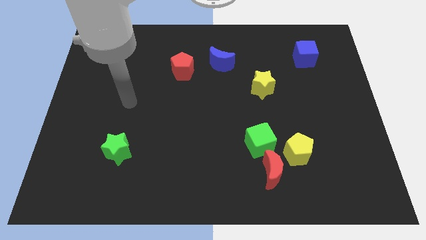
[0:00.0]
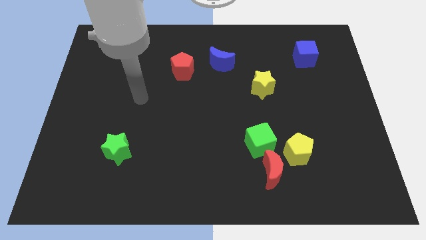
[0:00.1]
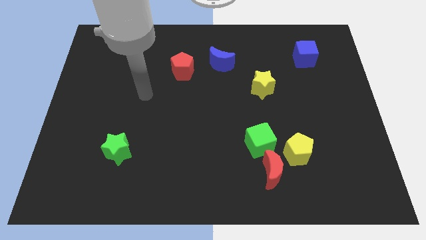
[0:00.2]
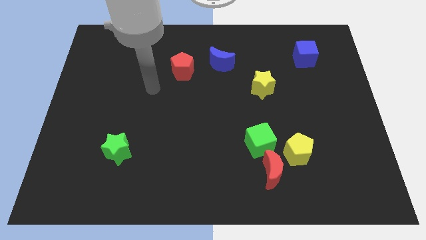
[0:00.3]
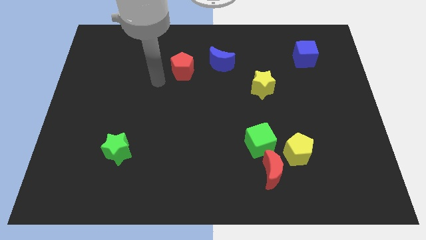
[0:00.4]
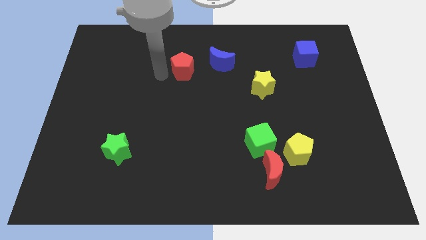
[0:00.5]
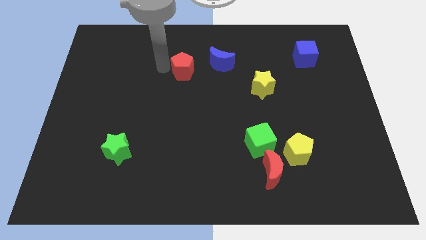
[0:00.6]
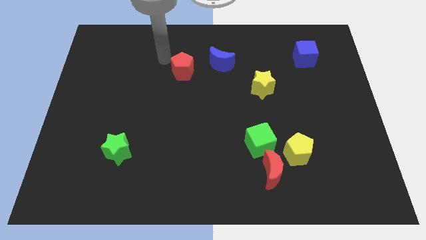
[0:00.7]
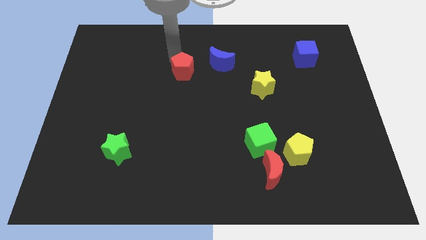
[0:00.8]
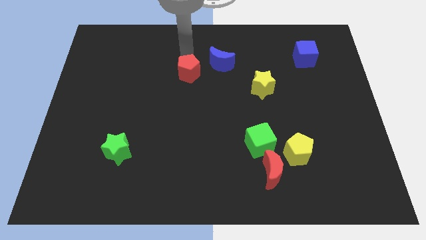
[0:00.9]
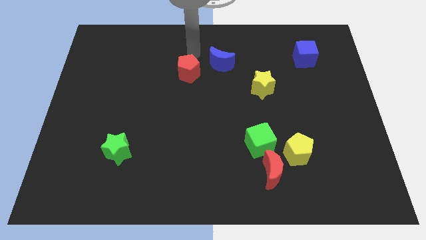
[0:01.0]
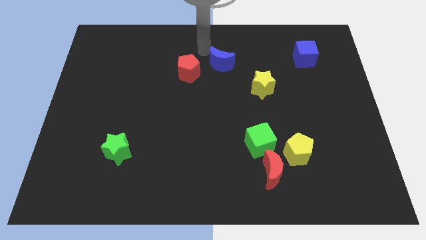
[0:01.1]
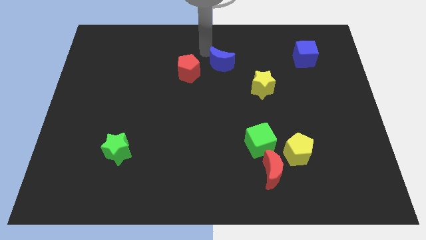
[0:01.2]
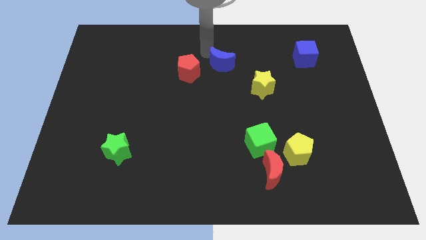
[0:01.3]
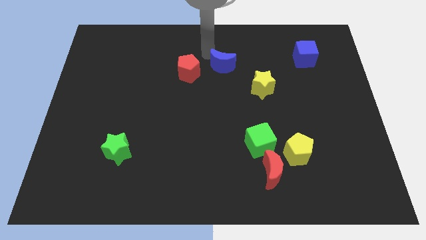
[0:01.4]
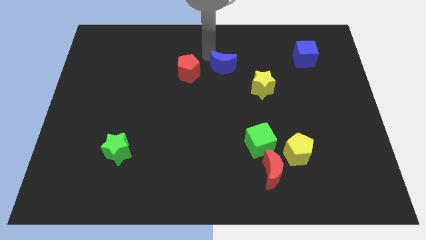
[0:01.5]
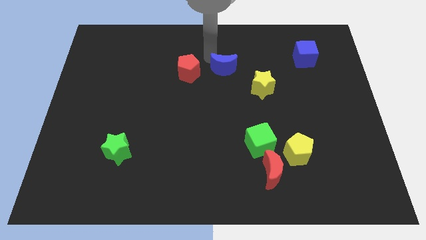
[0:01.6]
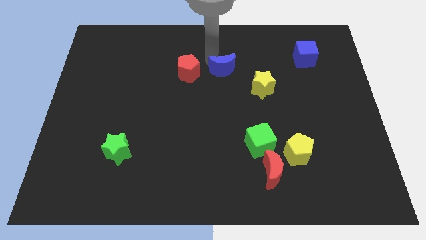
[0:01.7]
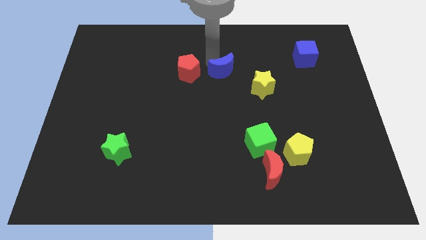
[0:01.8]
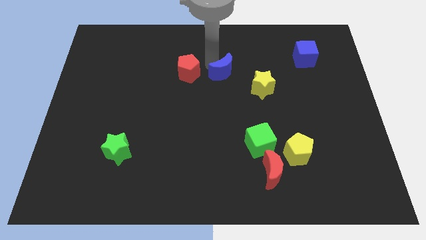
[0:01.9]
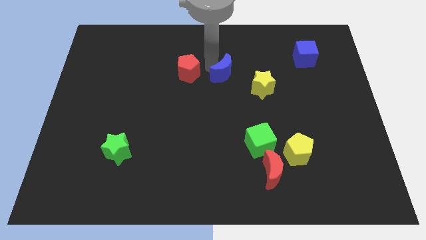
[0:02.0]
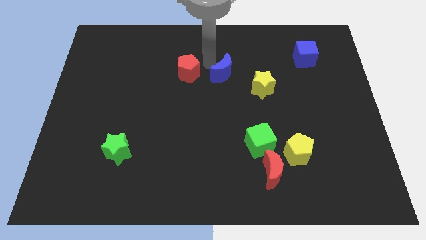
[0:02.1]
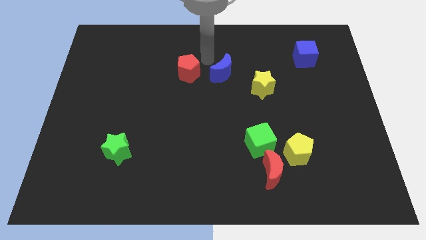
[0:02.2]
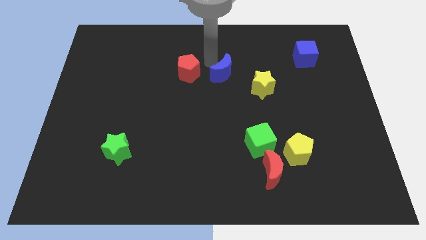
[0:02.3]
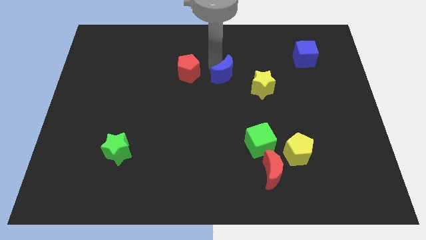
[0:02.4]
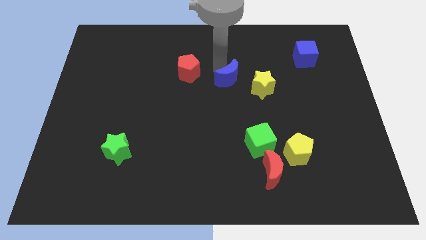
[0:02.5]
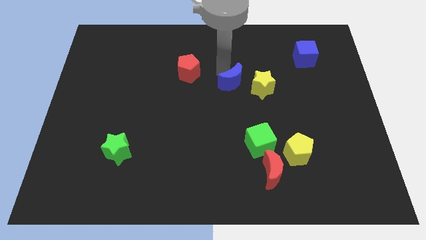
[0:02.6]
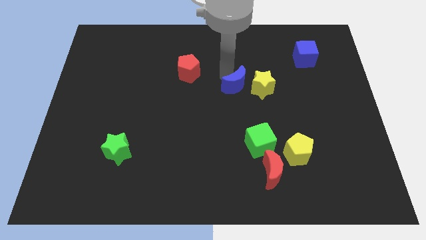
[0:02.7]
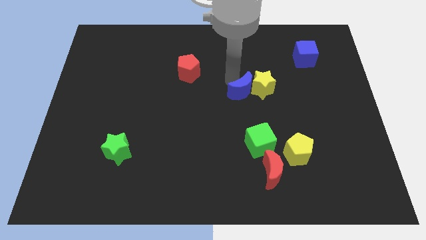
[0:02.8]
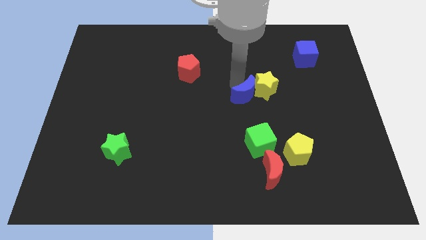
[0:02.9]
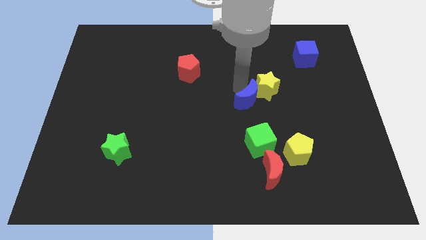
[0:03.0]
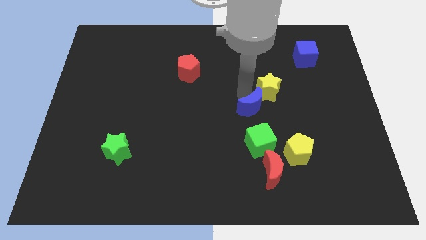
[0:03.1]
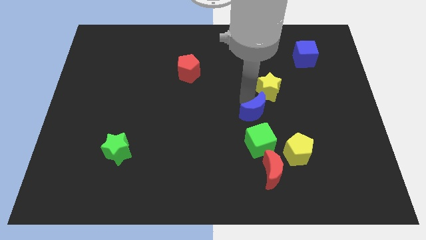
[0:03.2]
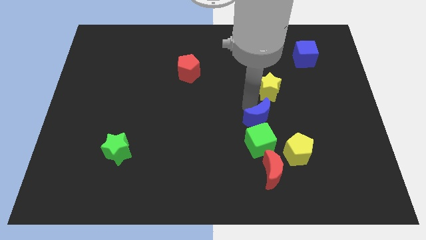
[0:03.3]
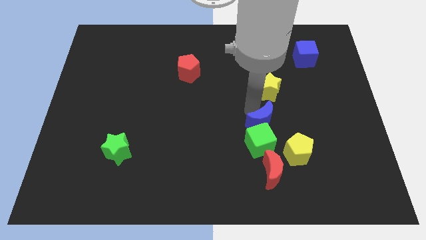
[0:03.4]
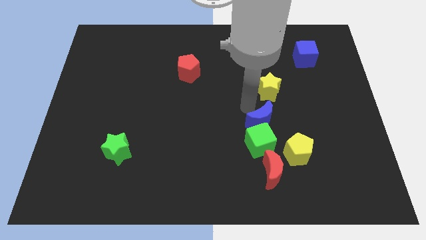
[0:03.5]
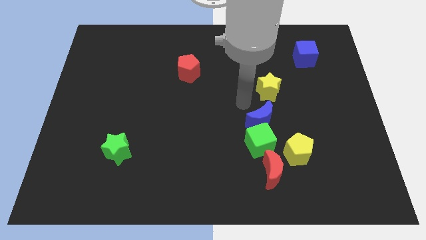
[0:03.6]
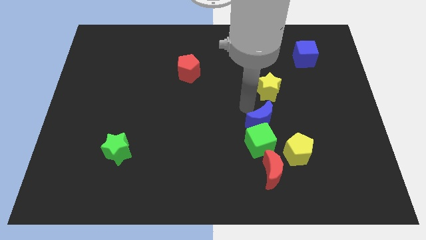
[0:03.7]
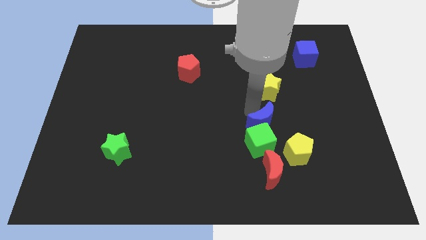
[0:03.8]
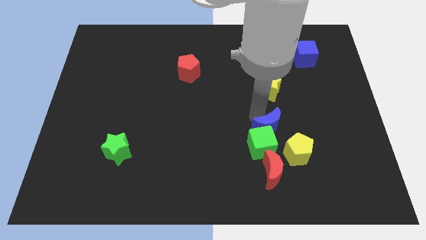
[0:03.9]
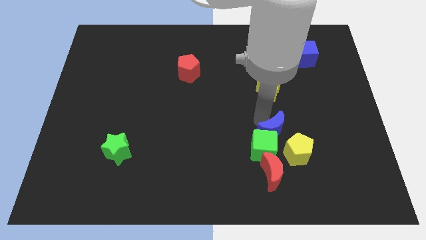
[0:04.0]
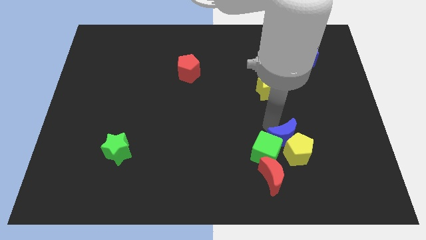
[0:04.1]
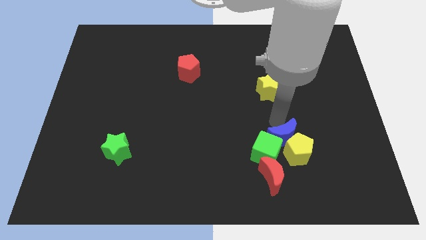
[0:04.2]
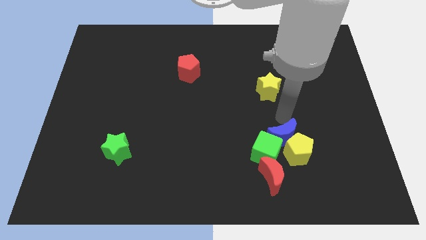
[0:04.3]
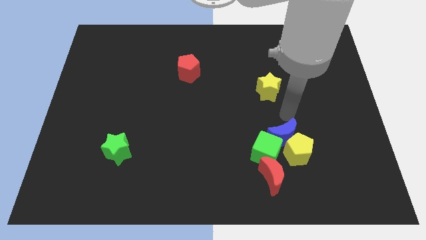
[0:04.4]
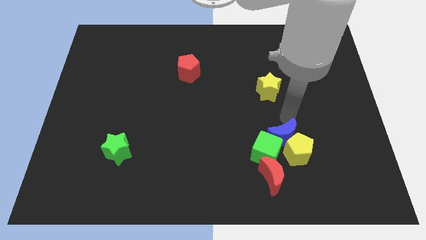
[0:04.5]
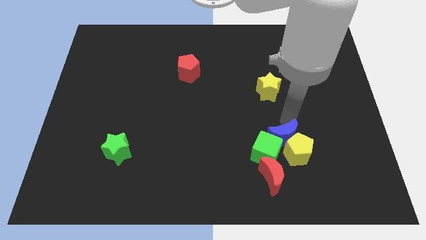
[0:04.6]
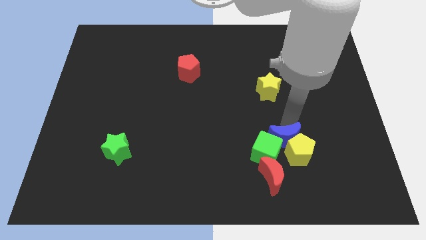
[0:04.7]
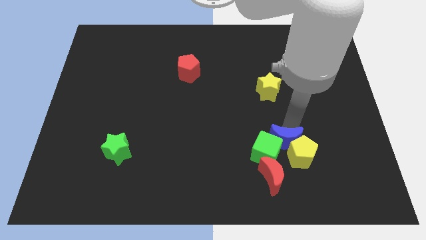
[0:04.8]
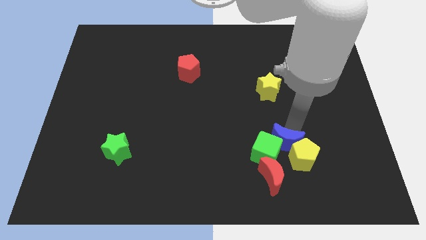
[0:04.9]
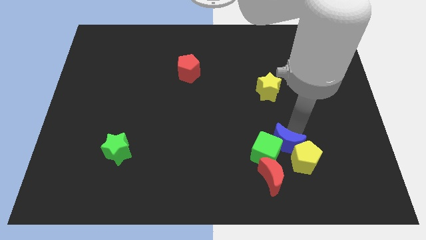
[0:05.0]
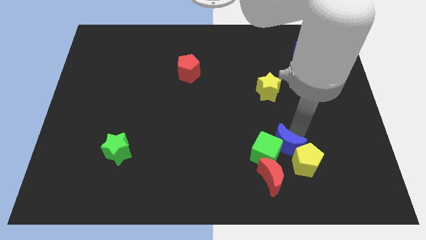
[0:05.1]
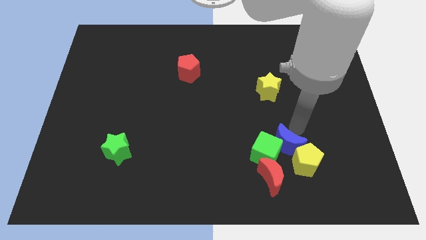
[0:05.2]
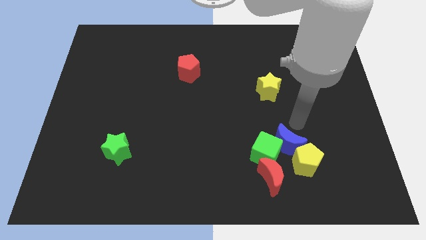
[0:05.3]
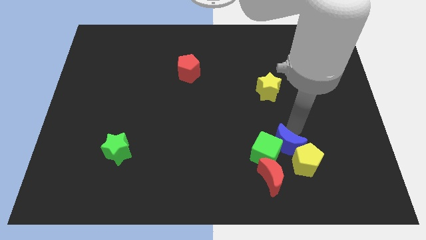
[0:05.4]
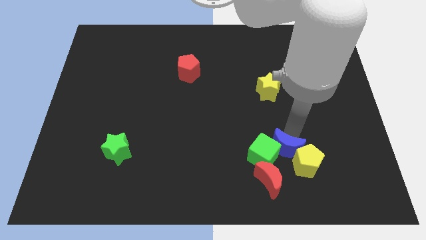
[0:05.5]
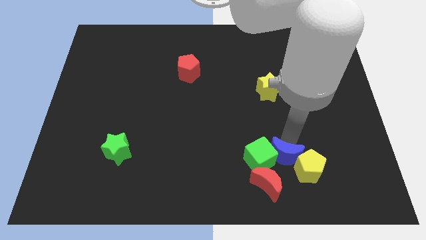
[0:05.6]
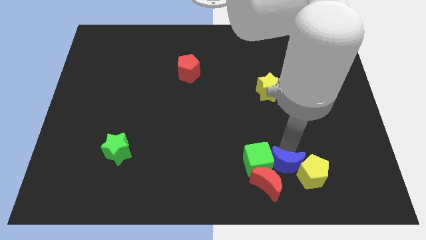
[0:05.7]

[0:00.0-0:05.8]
put the blue moon next to the red moon

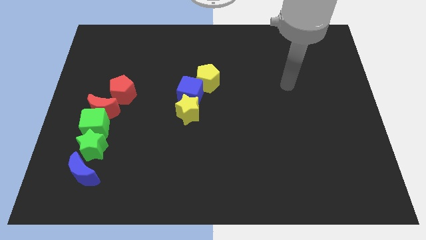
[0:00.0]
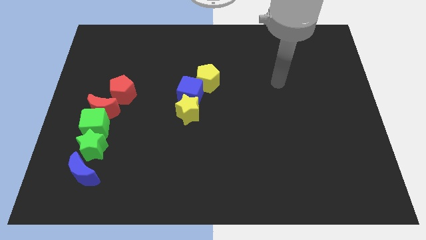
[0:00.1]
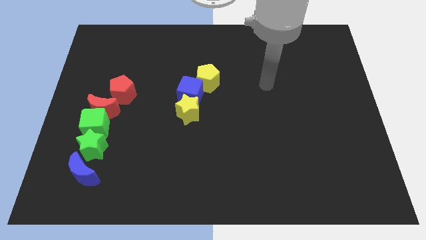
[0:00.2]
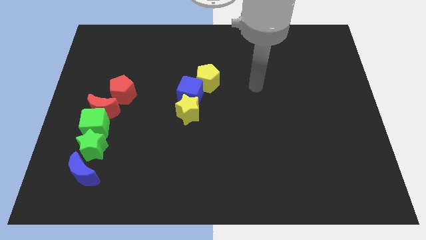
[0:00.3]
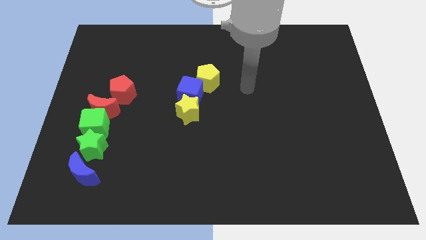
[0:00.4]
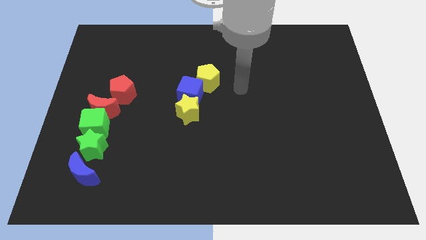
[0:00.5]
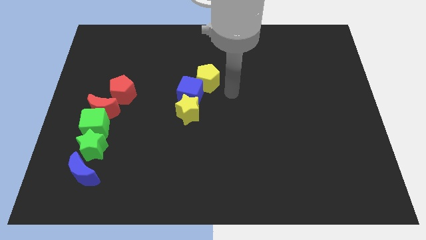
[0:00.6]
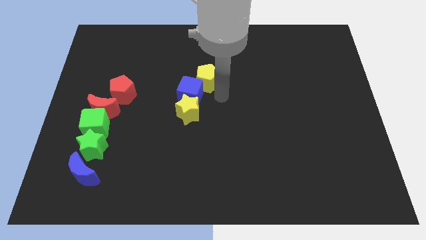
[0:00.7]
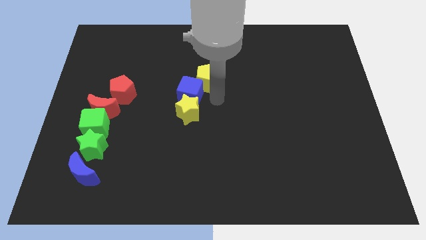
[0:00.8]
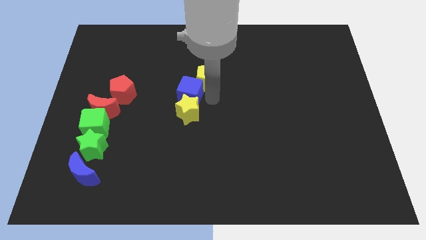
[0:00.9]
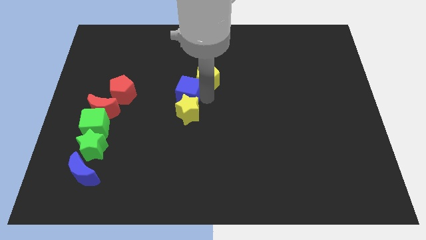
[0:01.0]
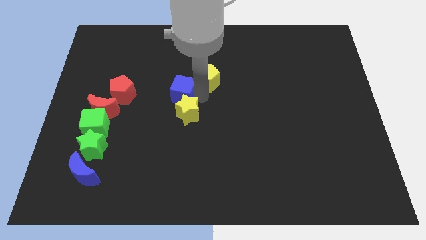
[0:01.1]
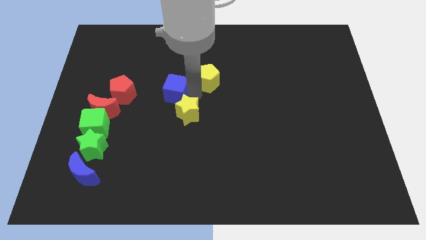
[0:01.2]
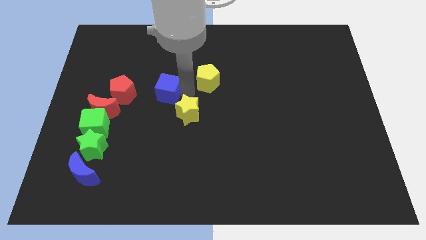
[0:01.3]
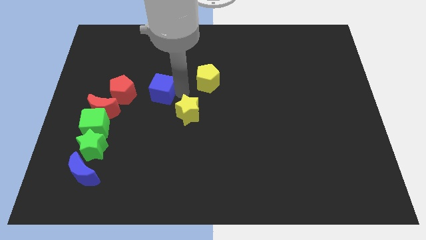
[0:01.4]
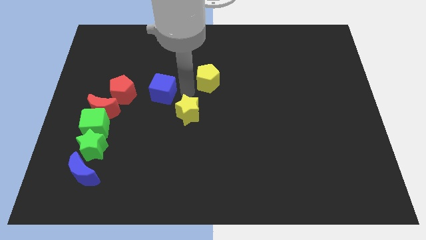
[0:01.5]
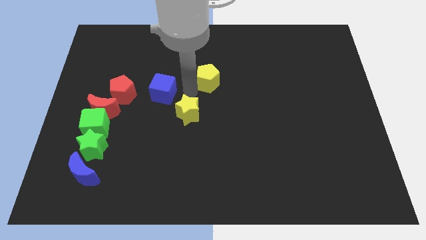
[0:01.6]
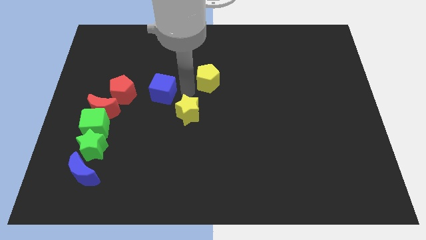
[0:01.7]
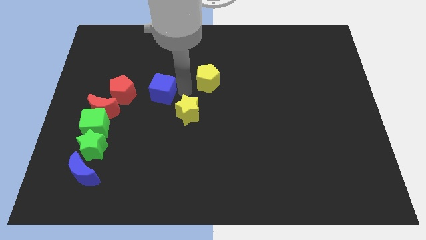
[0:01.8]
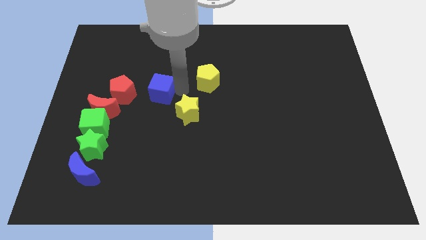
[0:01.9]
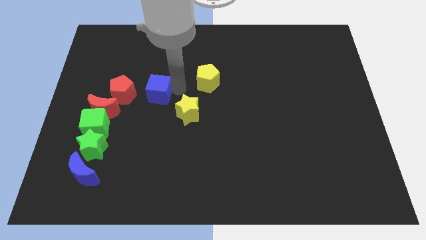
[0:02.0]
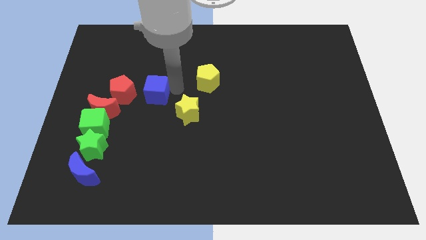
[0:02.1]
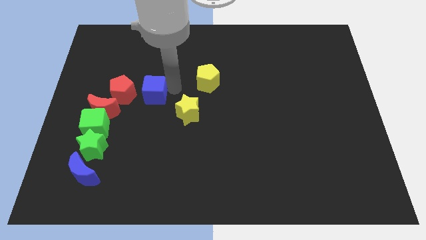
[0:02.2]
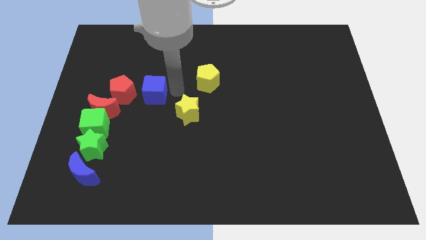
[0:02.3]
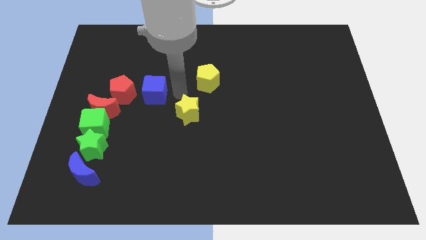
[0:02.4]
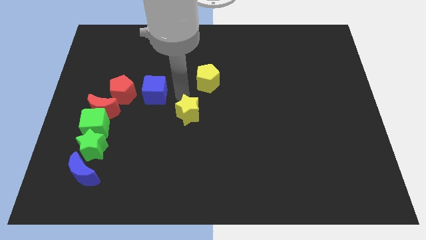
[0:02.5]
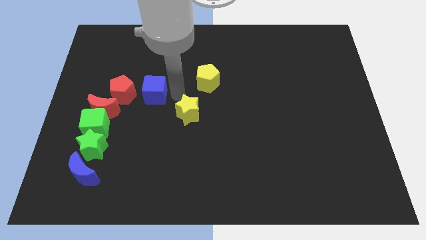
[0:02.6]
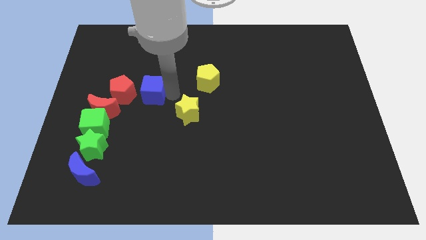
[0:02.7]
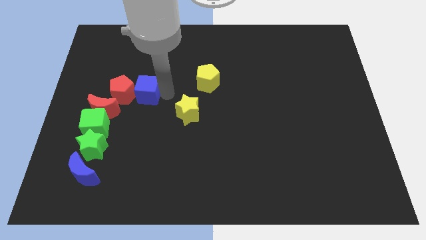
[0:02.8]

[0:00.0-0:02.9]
slide the blue cube to the red pentagon
